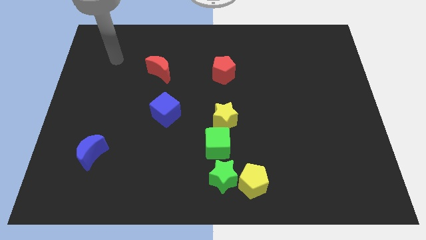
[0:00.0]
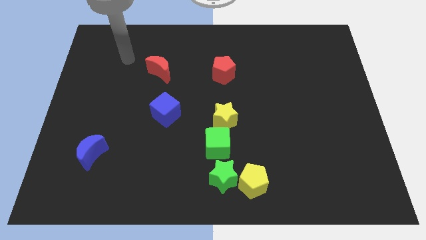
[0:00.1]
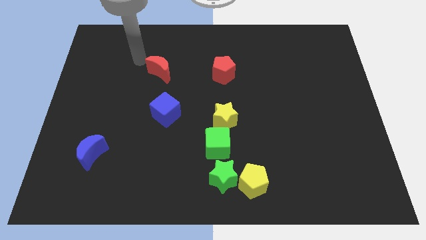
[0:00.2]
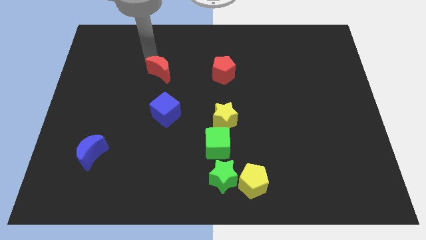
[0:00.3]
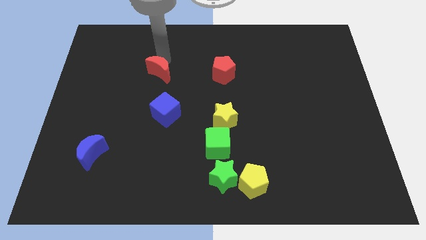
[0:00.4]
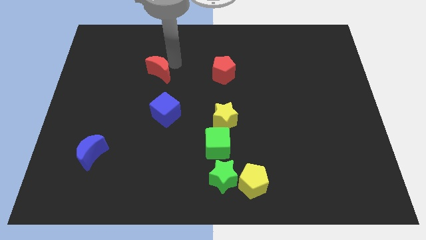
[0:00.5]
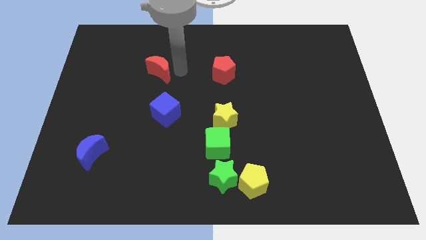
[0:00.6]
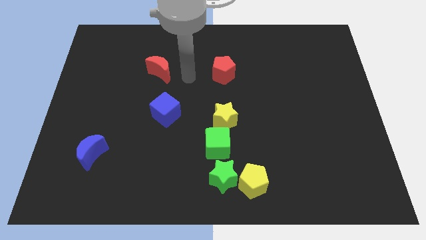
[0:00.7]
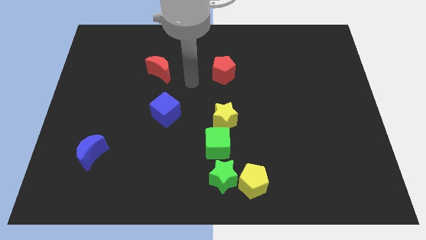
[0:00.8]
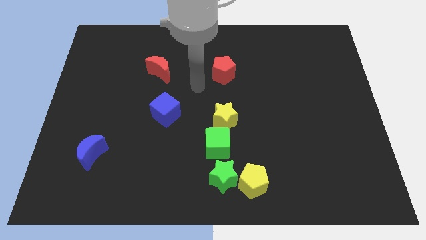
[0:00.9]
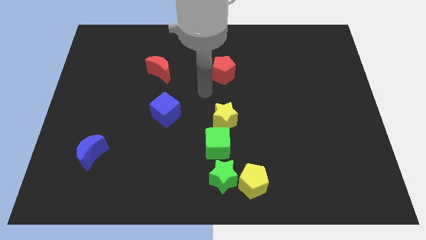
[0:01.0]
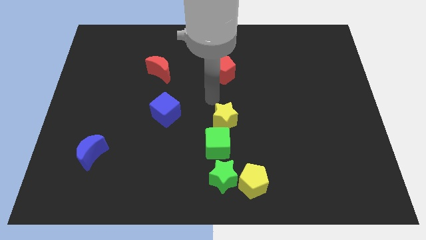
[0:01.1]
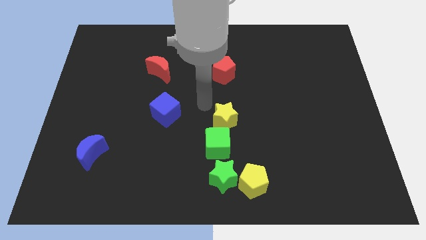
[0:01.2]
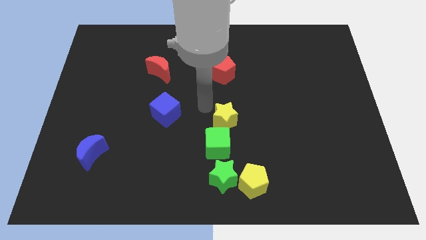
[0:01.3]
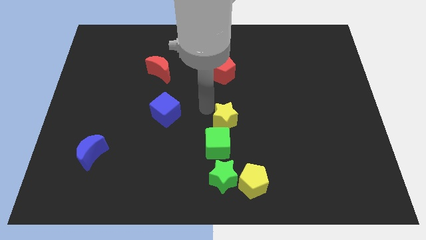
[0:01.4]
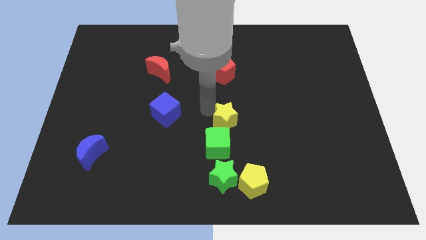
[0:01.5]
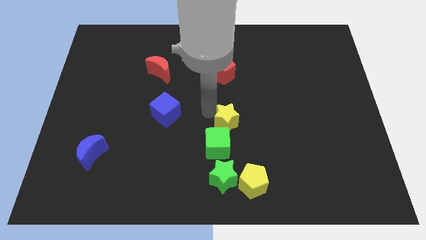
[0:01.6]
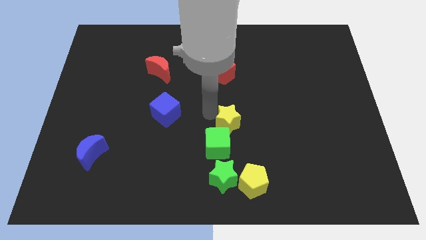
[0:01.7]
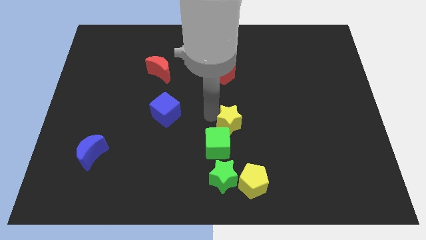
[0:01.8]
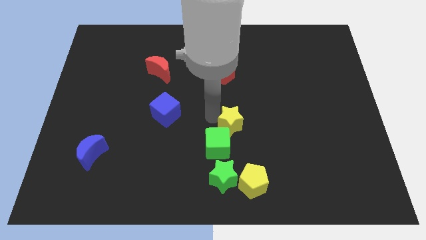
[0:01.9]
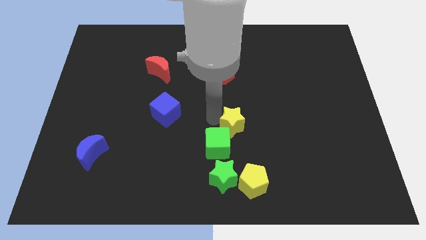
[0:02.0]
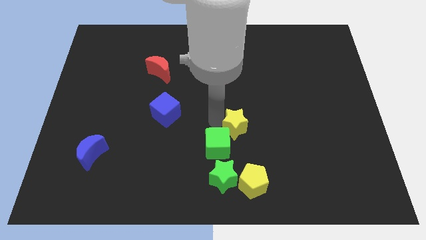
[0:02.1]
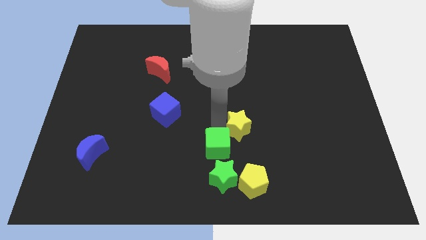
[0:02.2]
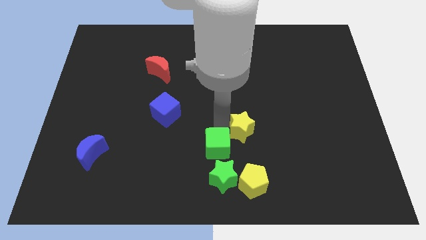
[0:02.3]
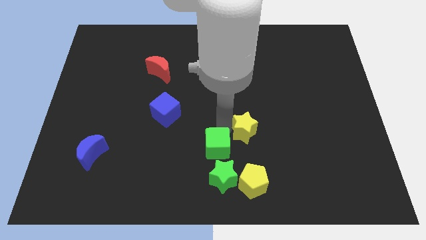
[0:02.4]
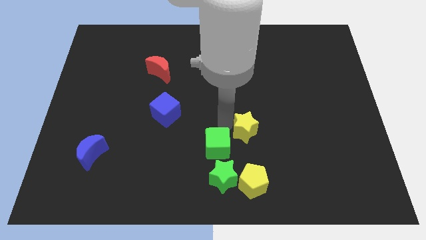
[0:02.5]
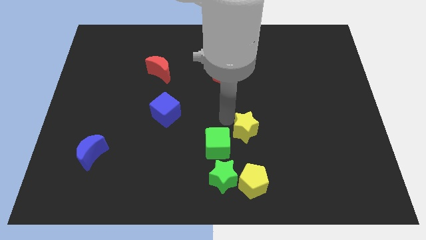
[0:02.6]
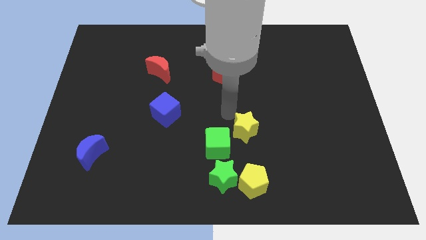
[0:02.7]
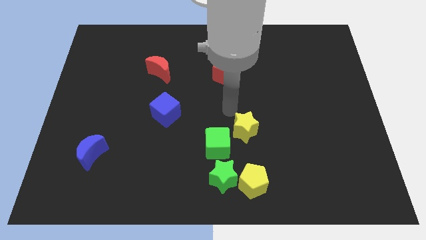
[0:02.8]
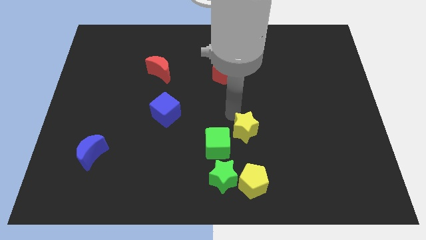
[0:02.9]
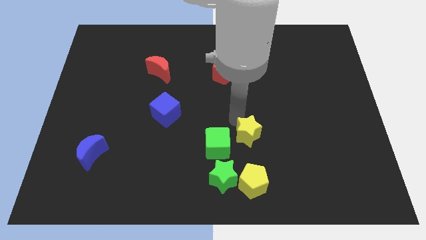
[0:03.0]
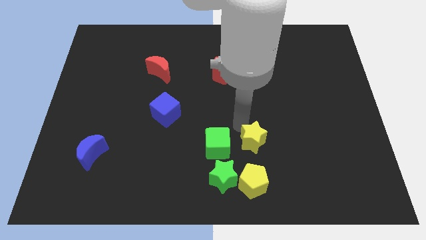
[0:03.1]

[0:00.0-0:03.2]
move the yellow star a bit down and to the right diagonally

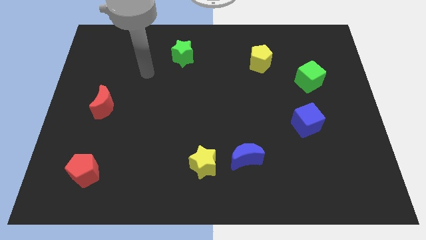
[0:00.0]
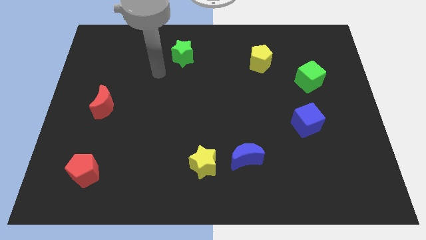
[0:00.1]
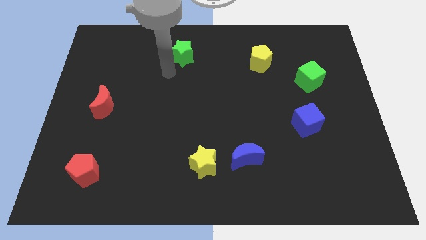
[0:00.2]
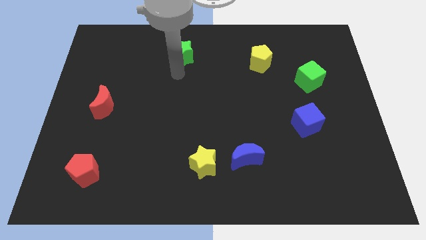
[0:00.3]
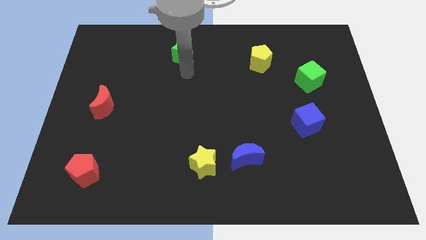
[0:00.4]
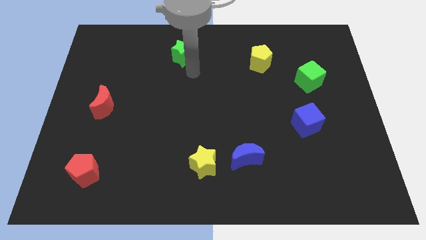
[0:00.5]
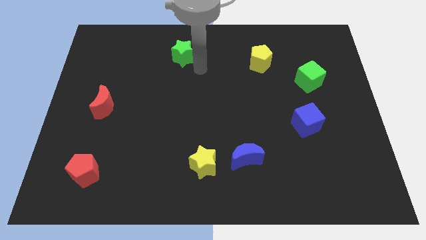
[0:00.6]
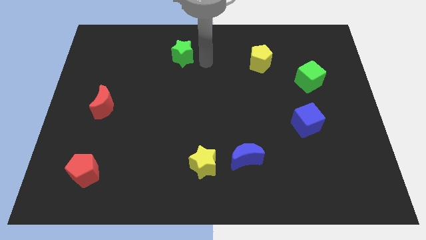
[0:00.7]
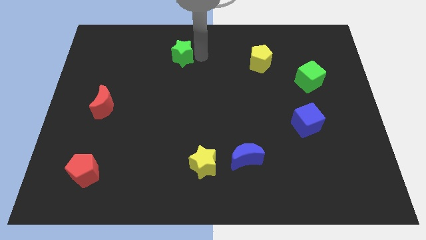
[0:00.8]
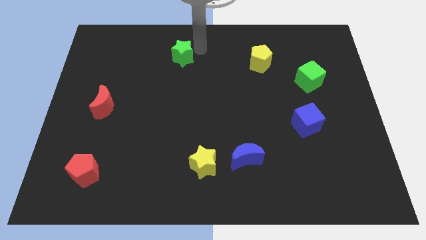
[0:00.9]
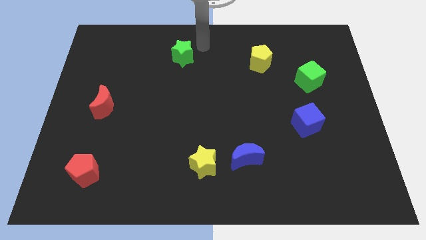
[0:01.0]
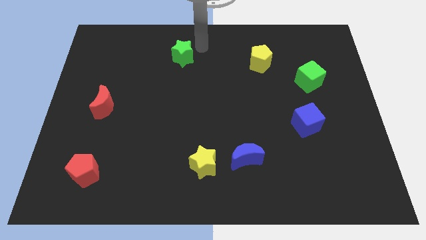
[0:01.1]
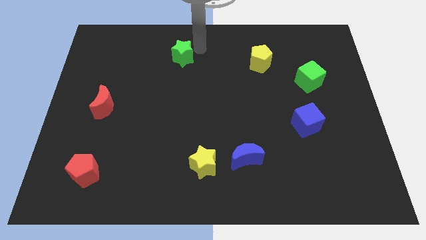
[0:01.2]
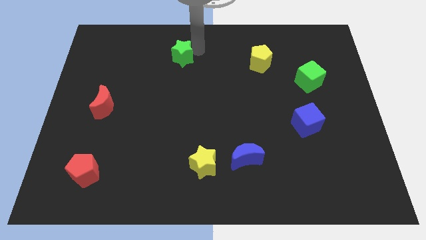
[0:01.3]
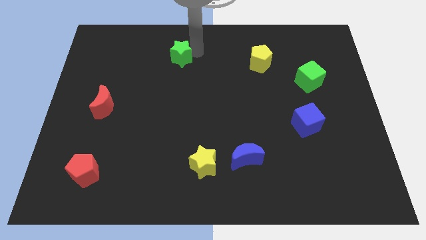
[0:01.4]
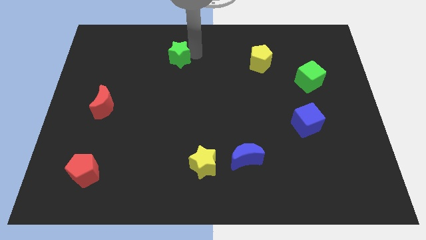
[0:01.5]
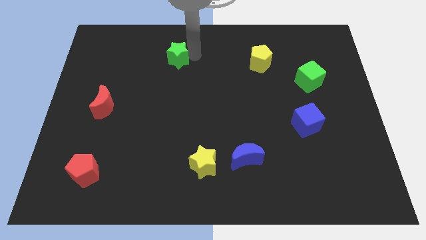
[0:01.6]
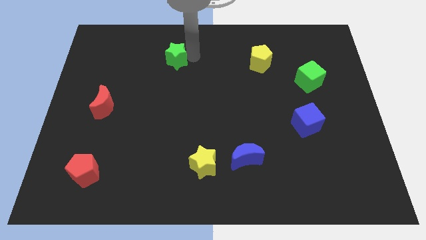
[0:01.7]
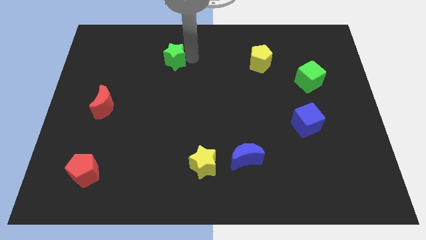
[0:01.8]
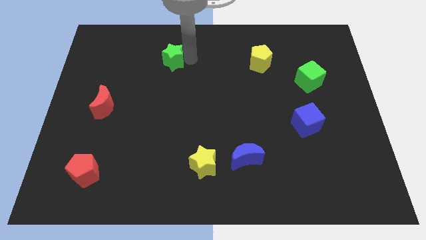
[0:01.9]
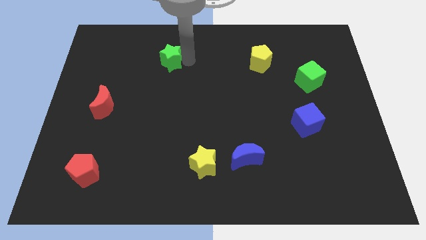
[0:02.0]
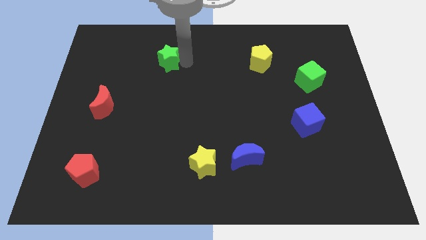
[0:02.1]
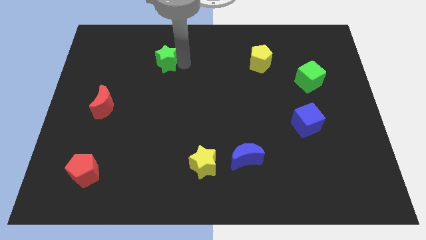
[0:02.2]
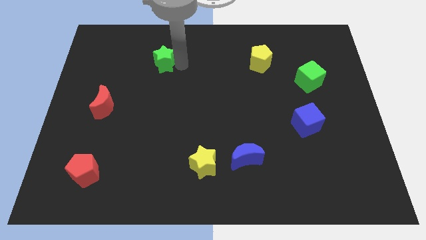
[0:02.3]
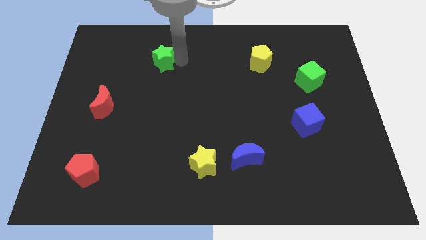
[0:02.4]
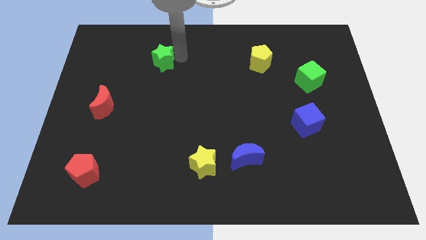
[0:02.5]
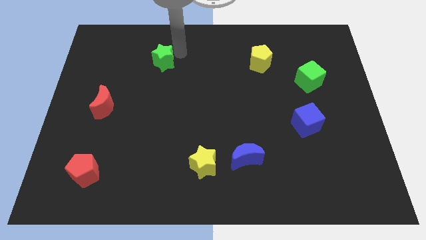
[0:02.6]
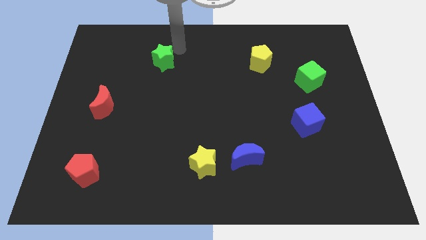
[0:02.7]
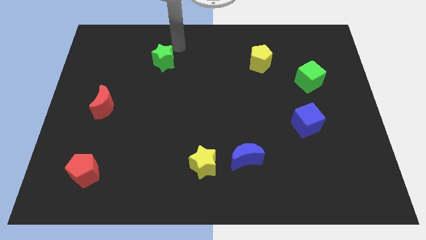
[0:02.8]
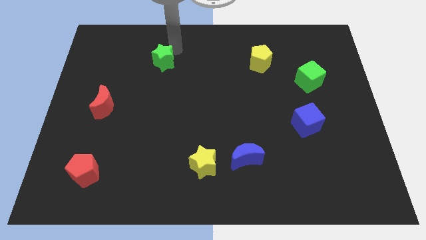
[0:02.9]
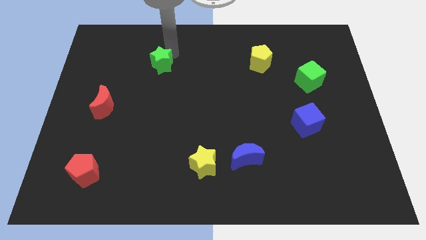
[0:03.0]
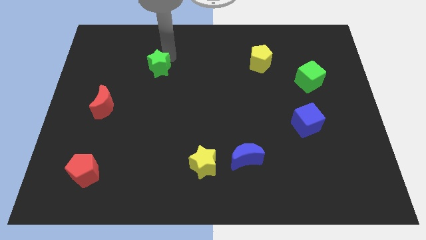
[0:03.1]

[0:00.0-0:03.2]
slightly slide the green star down and to the left diagonally

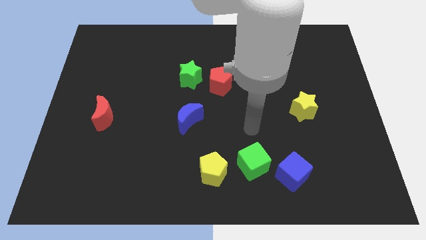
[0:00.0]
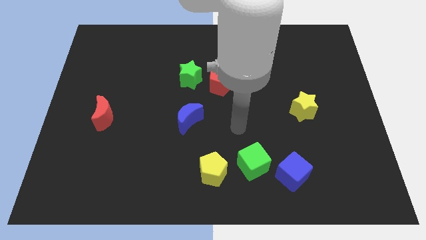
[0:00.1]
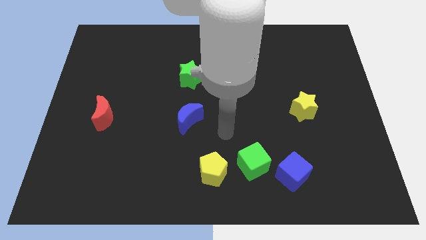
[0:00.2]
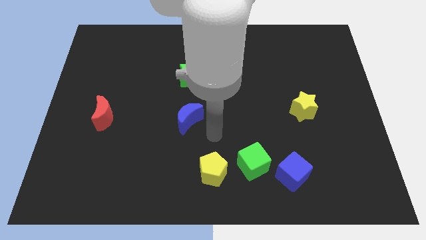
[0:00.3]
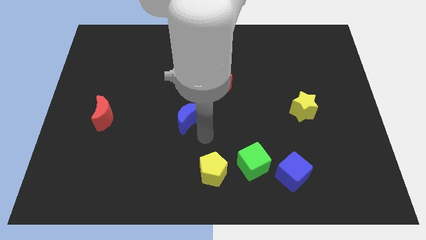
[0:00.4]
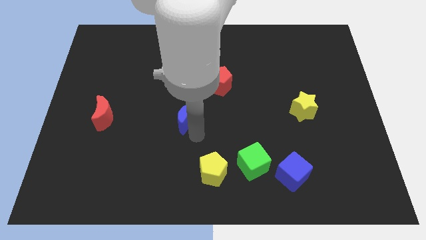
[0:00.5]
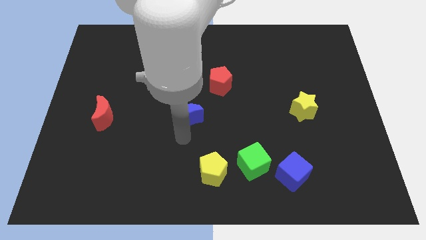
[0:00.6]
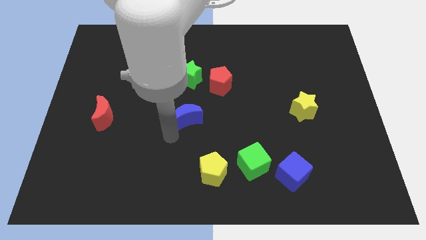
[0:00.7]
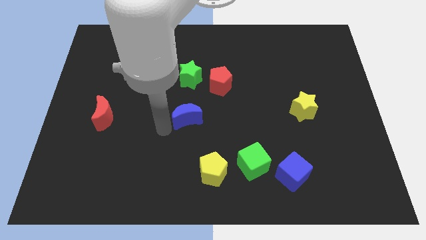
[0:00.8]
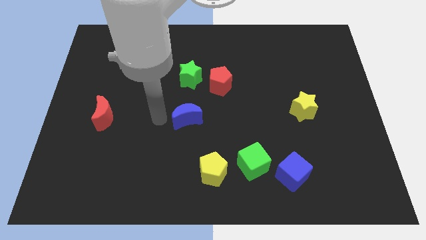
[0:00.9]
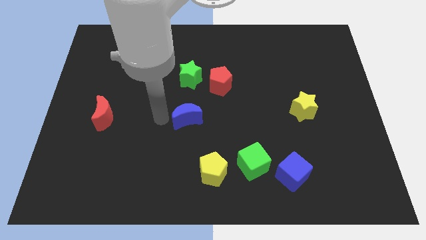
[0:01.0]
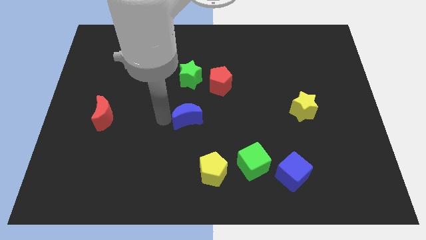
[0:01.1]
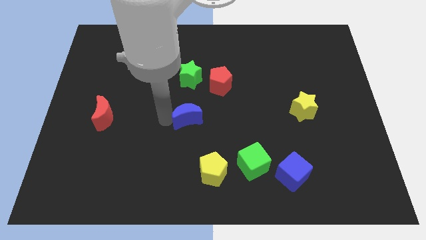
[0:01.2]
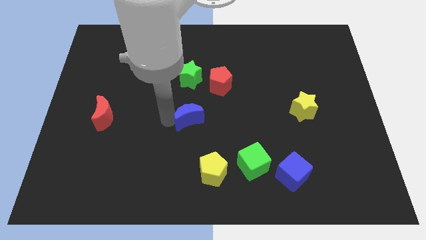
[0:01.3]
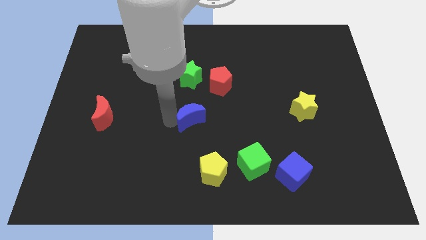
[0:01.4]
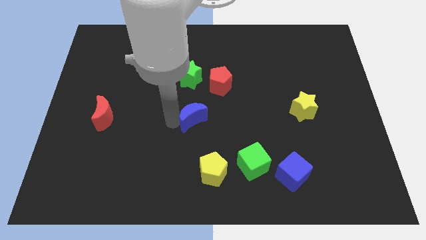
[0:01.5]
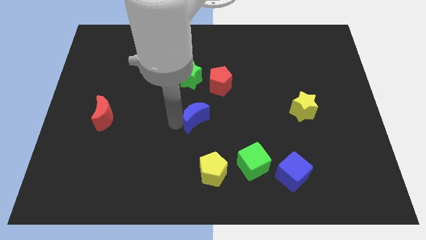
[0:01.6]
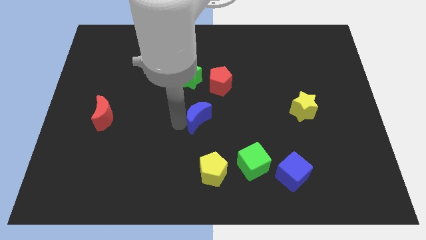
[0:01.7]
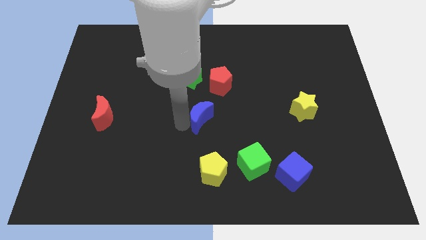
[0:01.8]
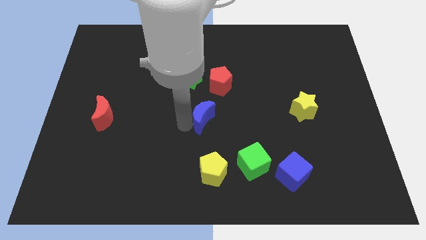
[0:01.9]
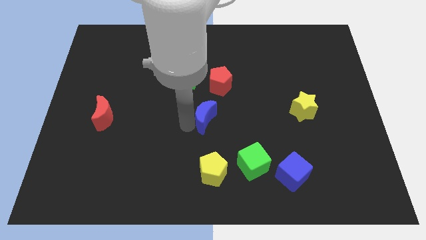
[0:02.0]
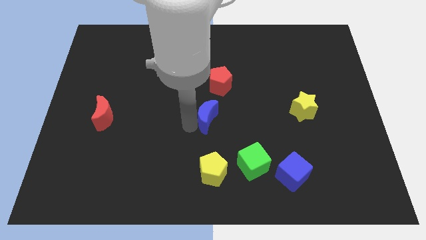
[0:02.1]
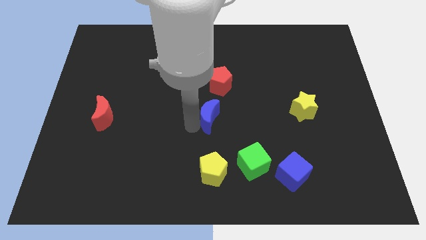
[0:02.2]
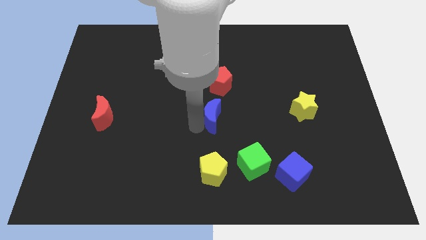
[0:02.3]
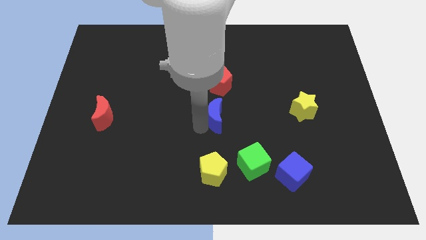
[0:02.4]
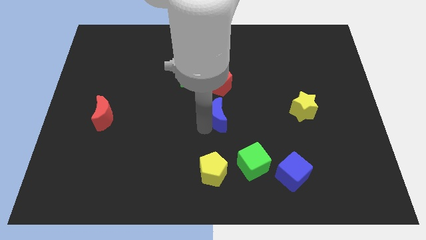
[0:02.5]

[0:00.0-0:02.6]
push the blue moon a little to the right
